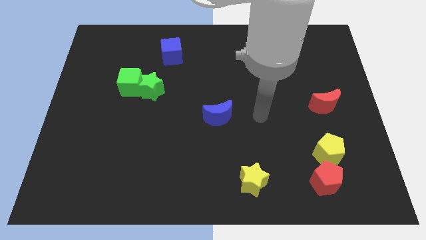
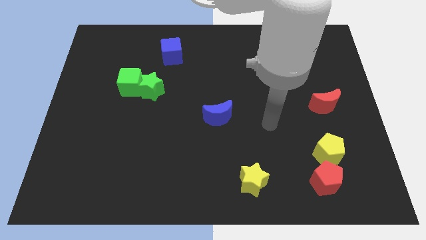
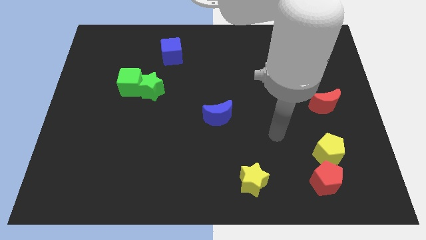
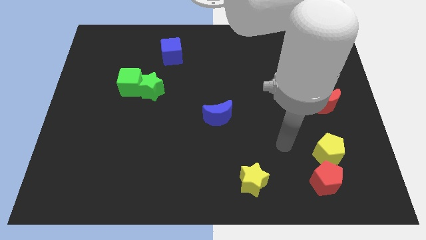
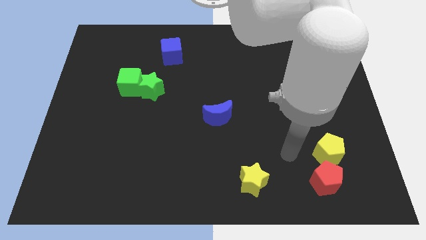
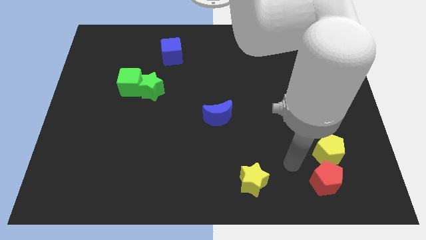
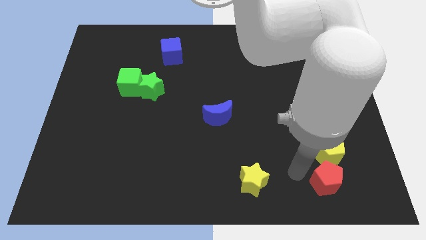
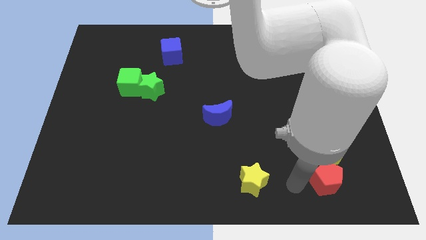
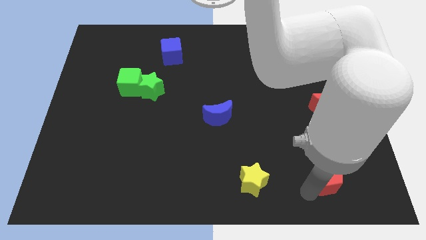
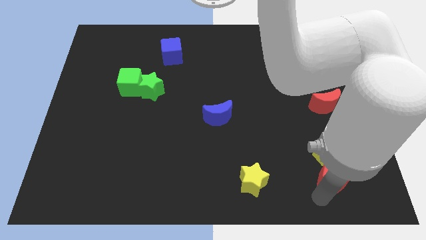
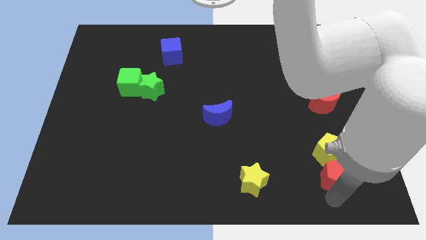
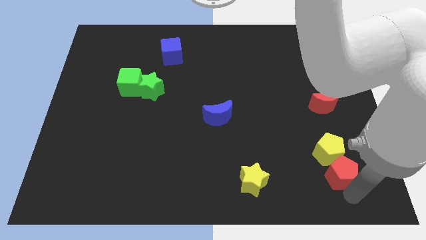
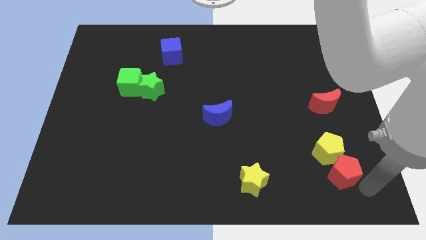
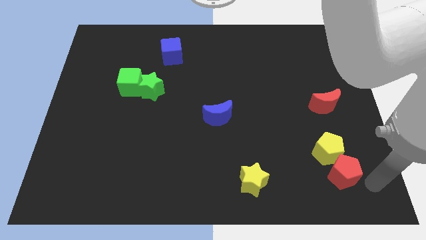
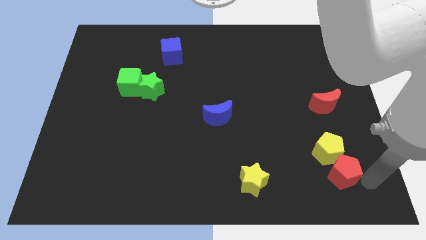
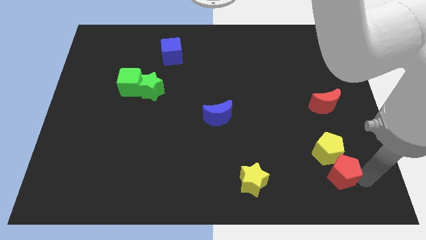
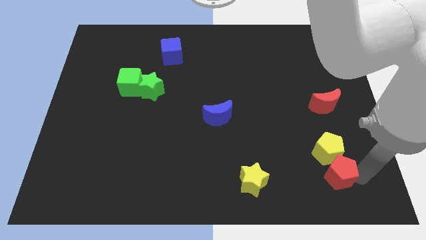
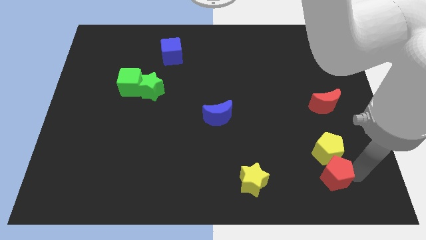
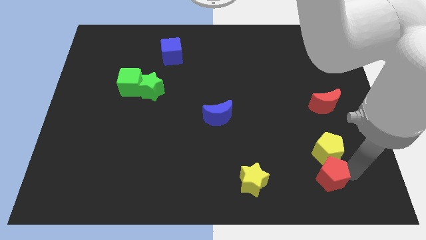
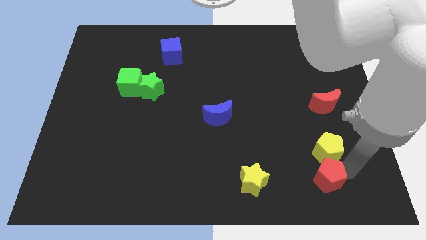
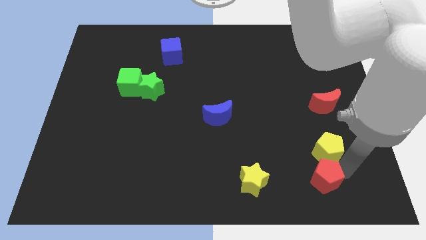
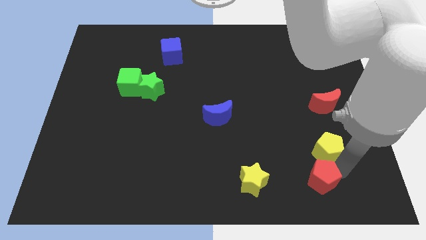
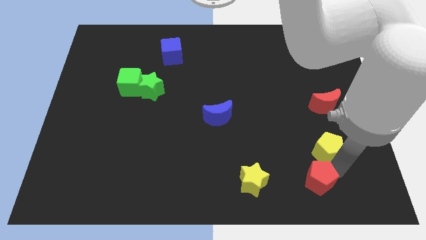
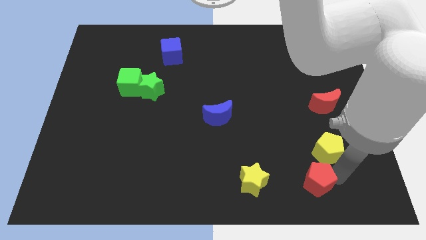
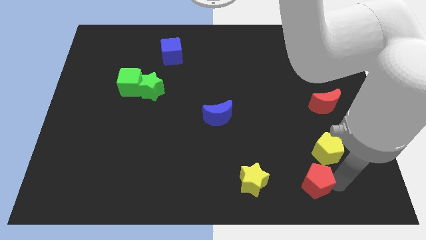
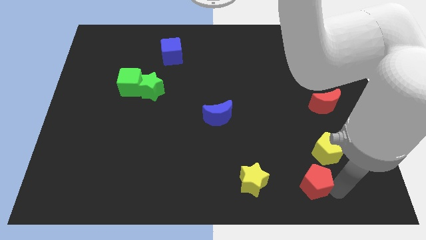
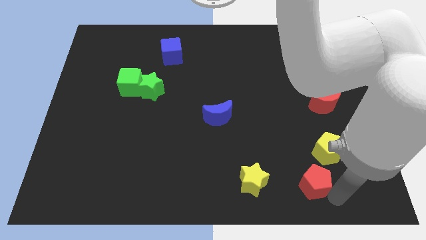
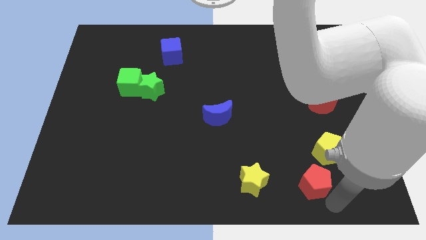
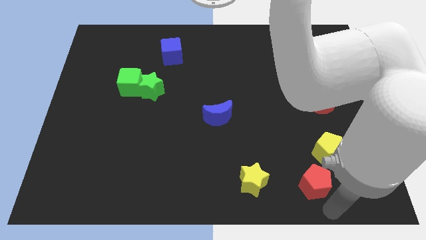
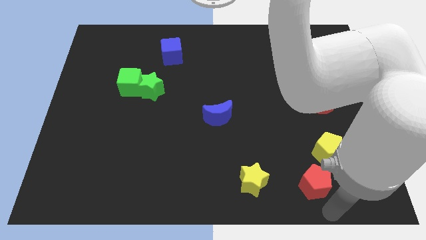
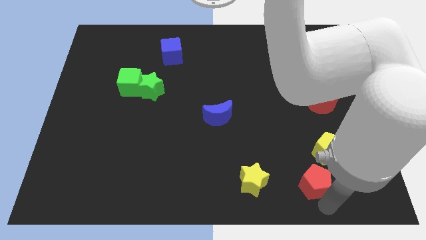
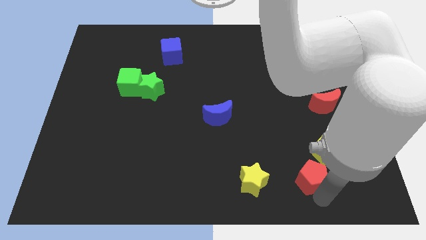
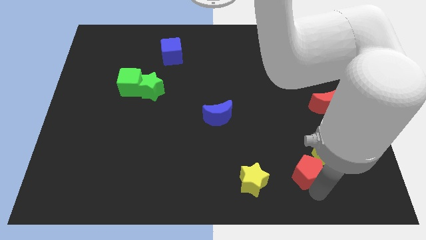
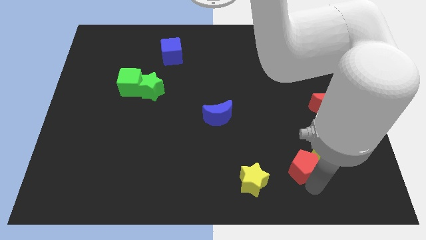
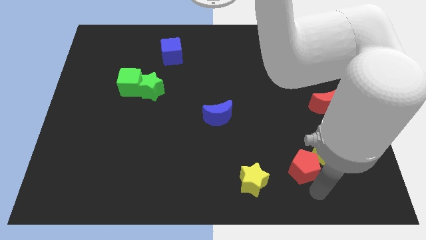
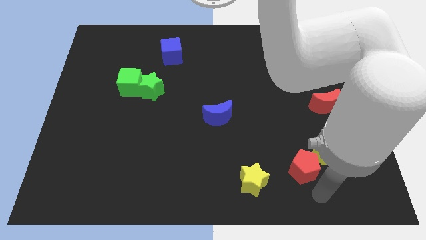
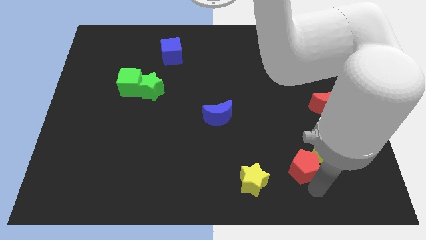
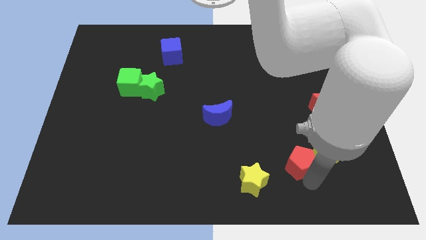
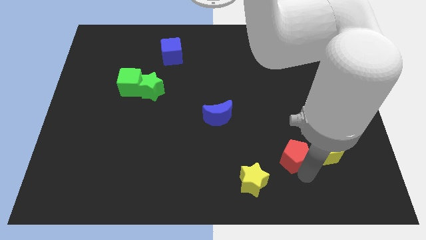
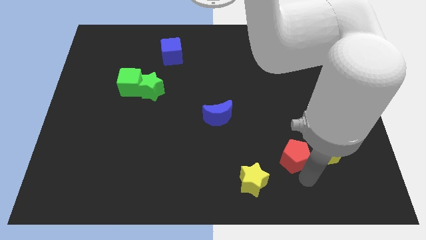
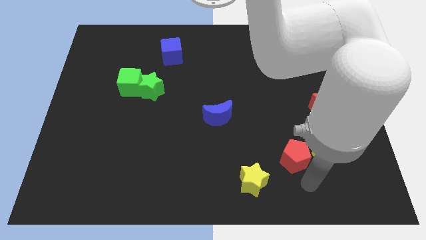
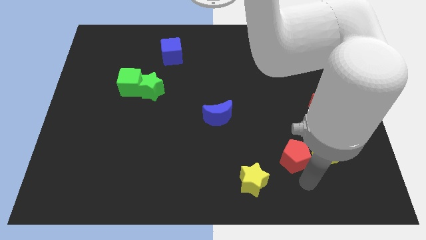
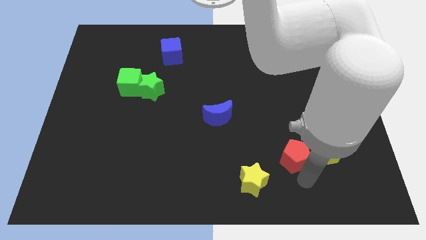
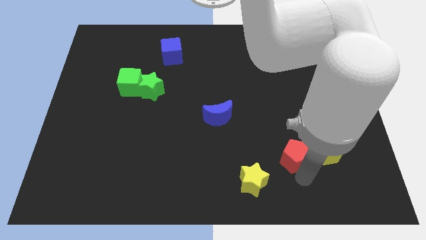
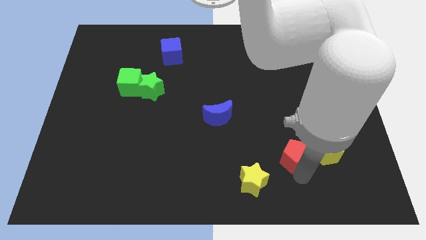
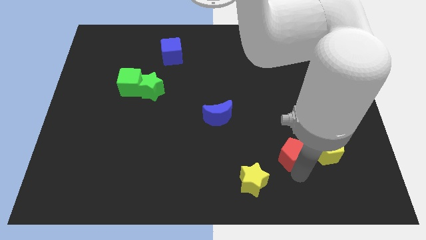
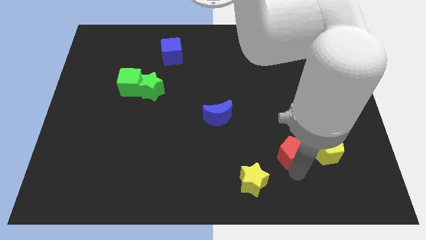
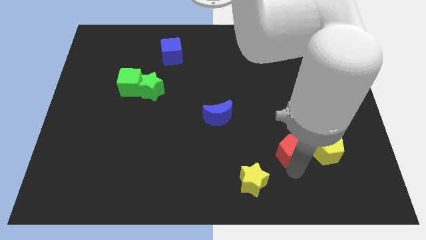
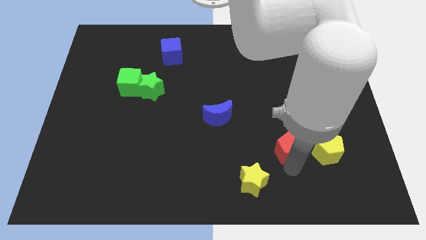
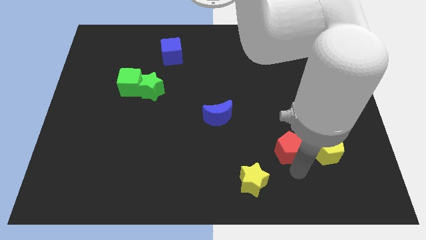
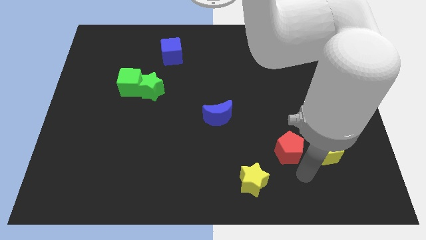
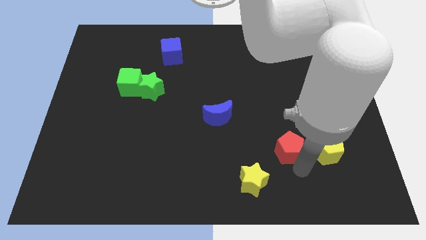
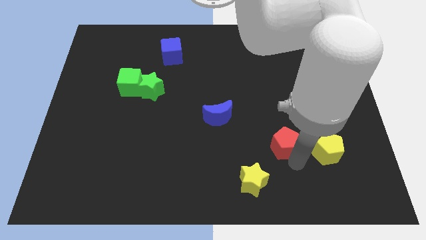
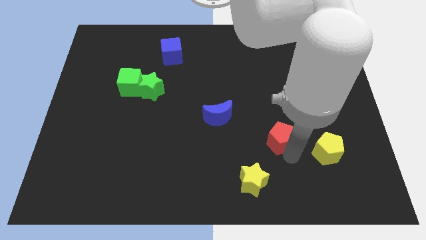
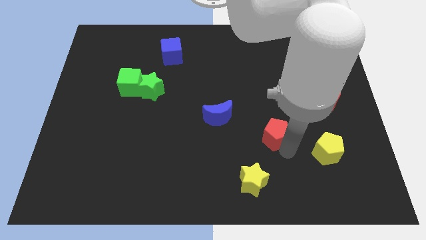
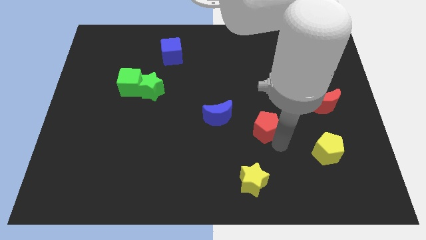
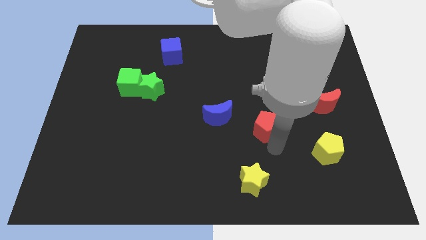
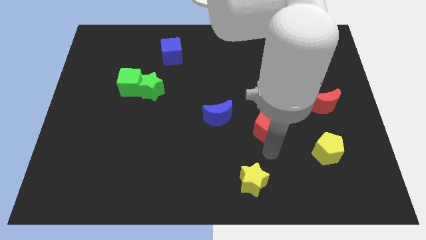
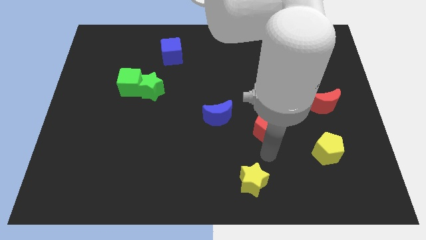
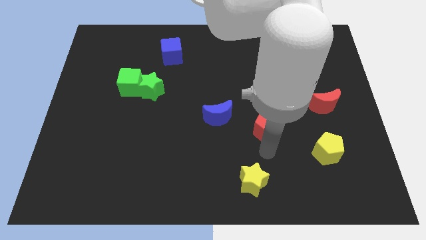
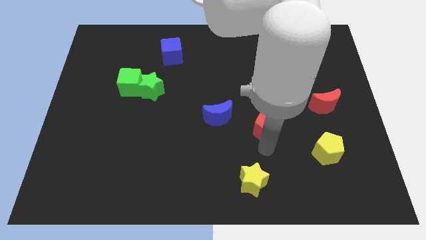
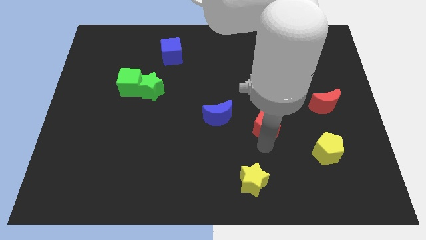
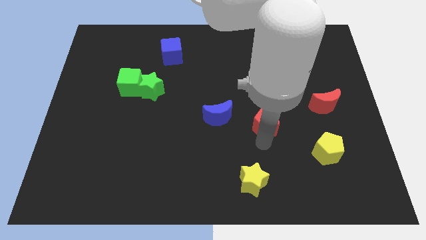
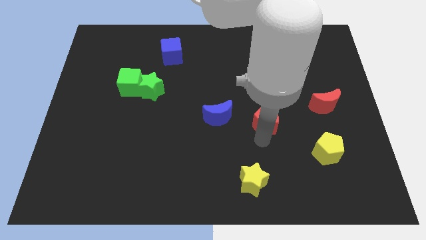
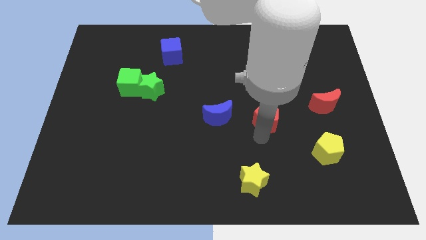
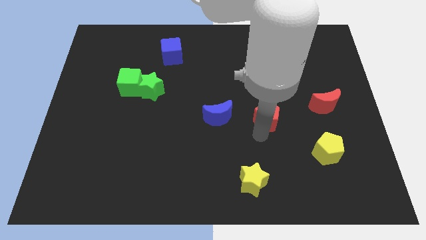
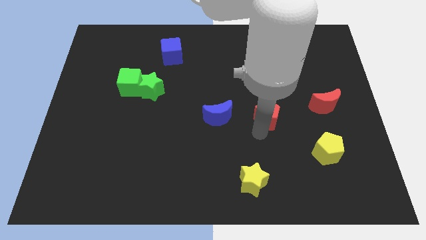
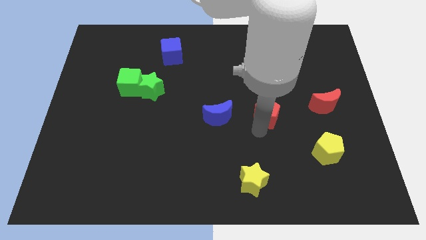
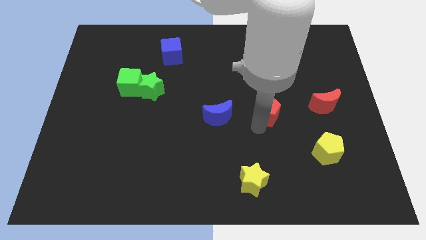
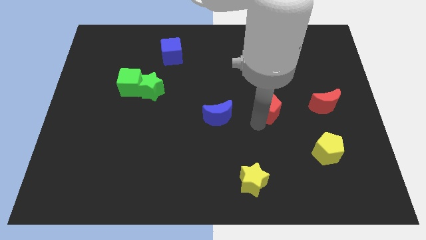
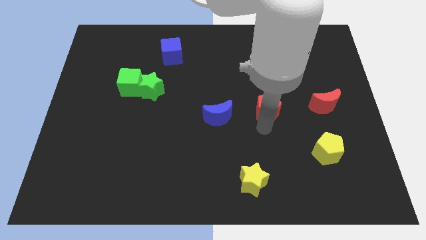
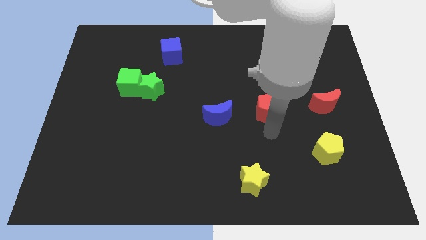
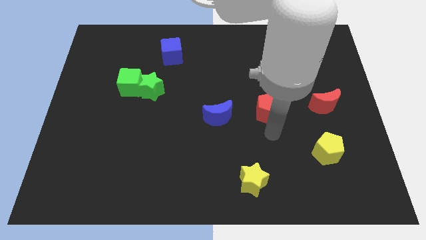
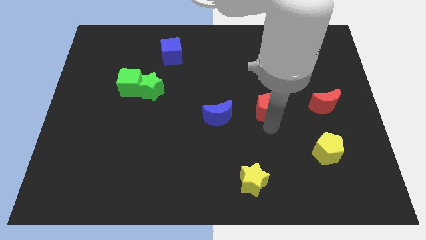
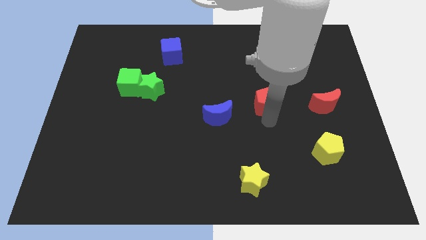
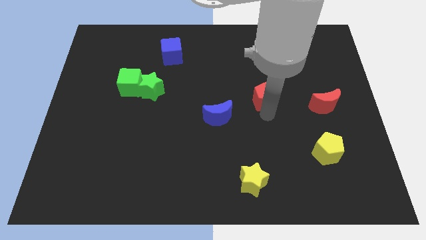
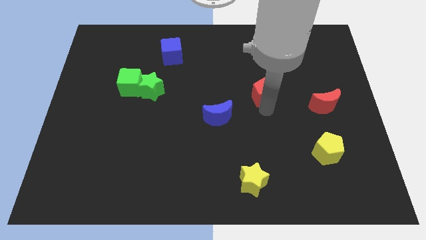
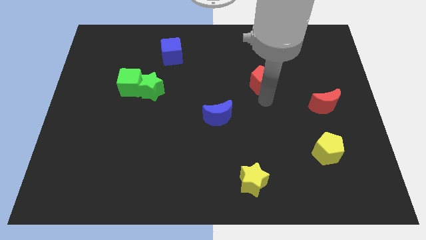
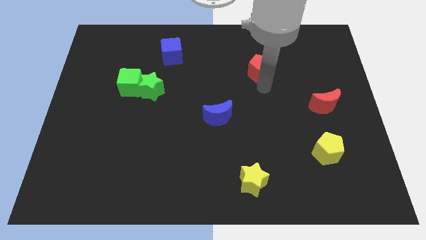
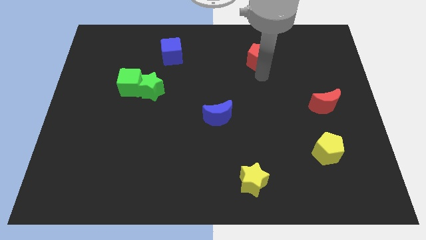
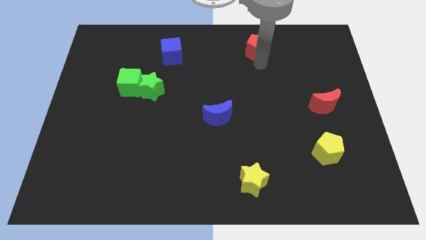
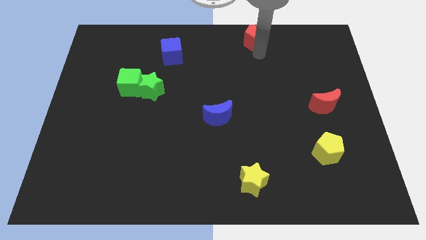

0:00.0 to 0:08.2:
put the red pentagon to the towards your base
